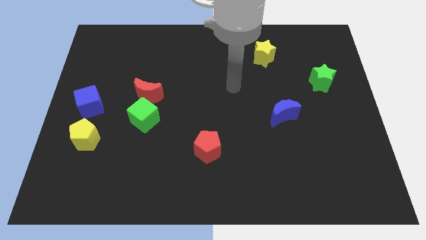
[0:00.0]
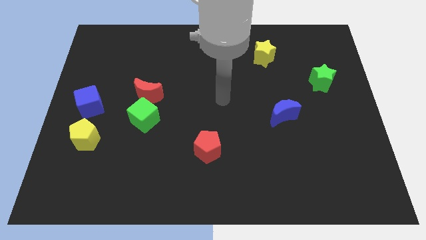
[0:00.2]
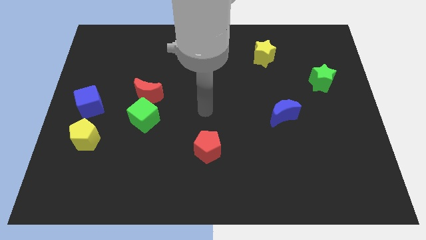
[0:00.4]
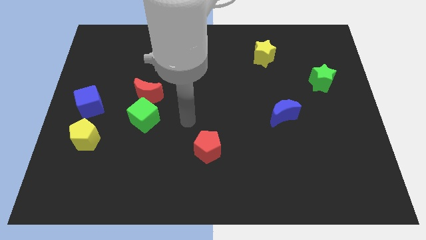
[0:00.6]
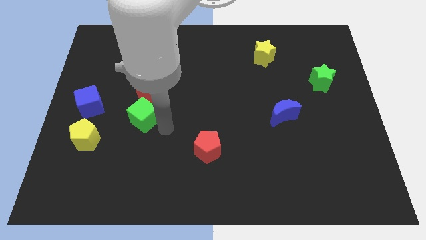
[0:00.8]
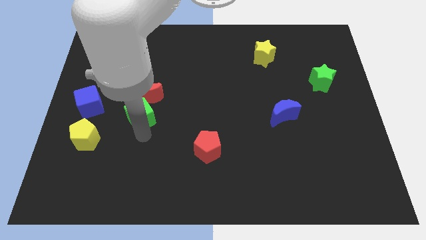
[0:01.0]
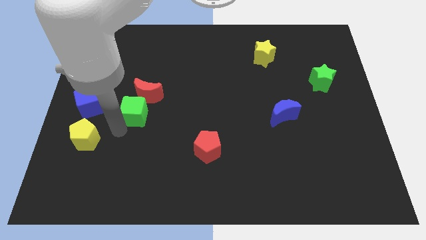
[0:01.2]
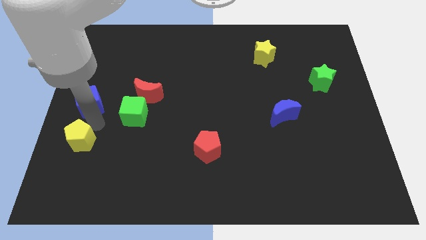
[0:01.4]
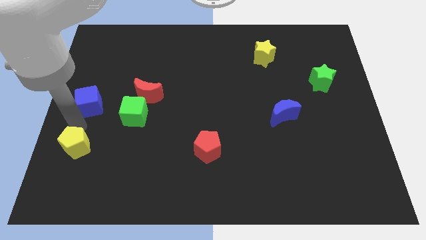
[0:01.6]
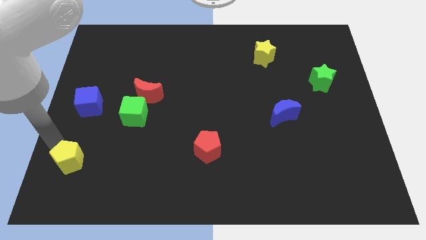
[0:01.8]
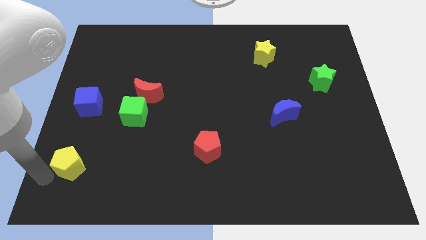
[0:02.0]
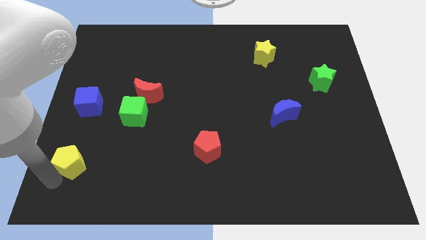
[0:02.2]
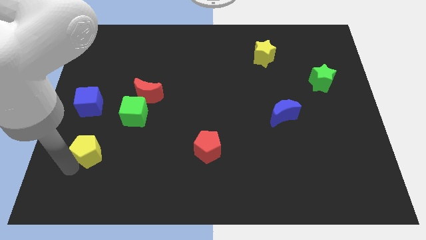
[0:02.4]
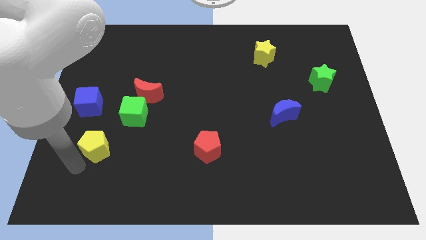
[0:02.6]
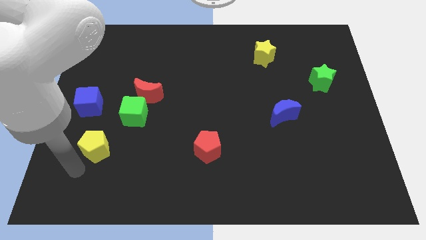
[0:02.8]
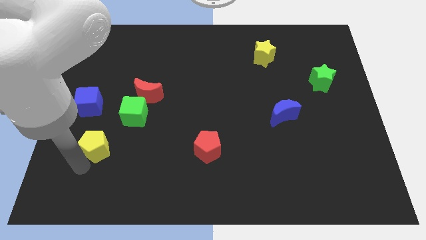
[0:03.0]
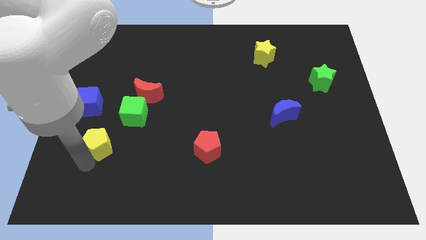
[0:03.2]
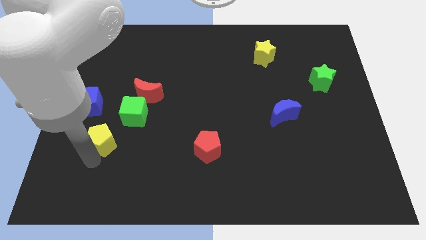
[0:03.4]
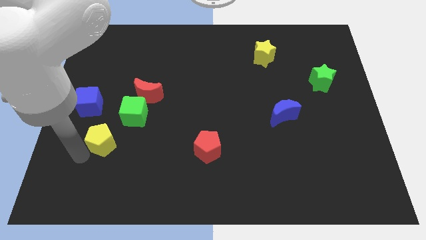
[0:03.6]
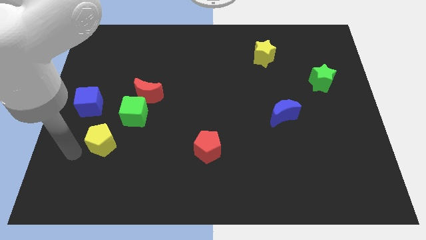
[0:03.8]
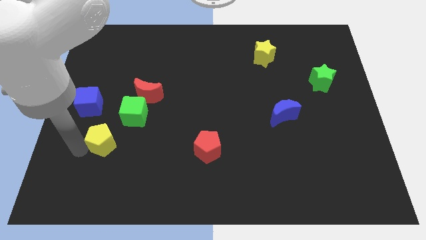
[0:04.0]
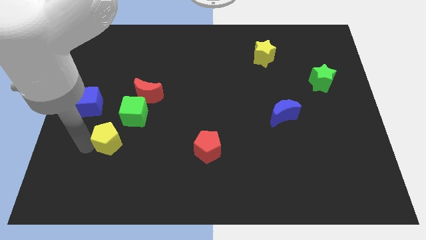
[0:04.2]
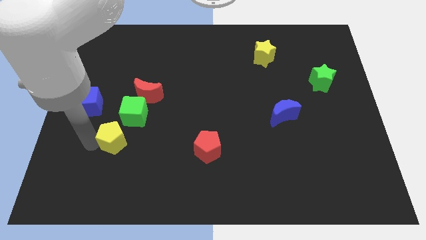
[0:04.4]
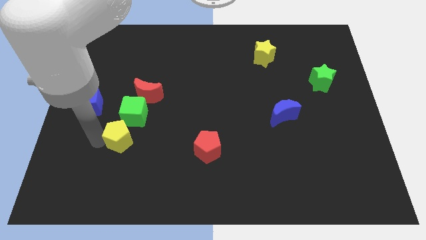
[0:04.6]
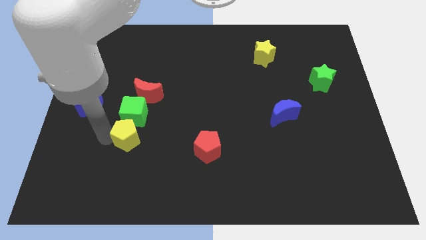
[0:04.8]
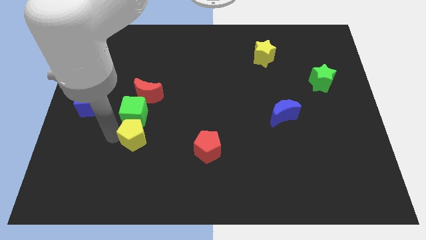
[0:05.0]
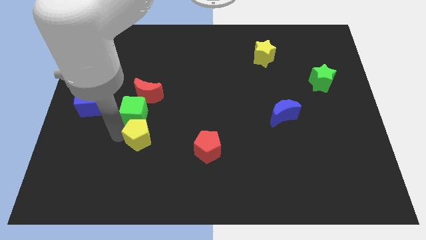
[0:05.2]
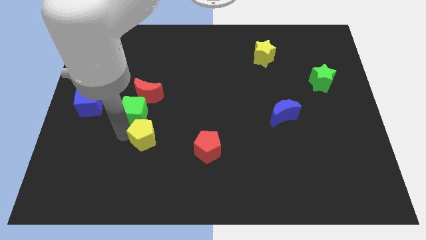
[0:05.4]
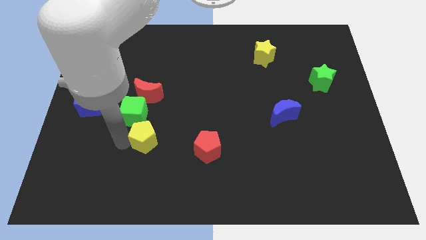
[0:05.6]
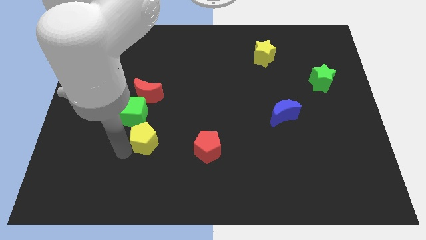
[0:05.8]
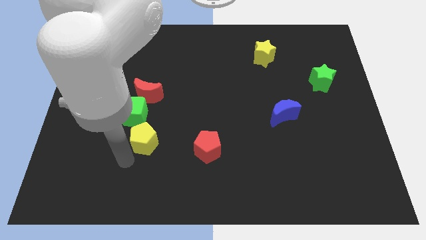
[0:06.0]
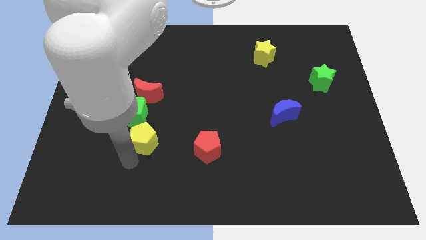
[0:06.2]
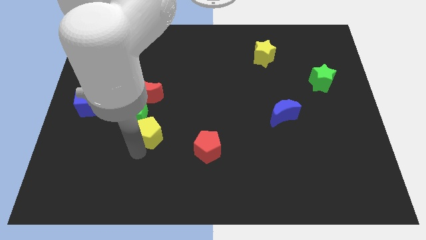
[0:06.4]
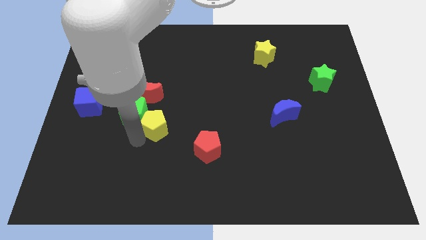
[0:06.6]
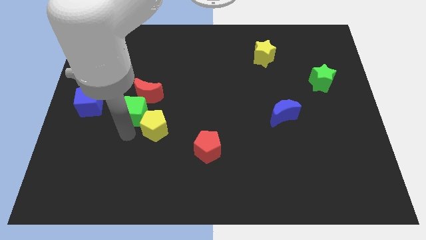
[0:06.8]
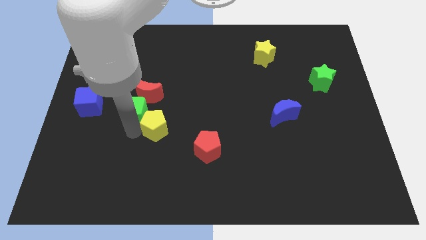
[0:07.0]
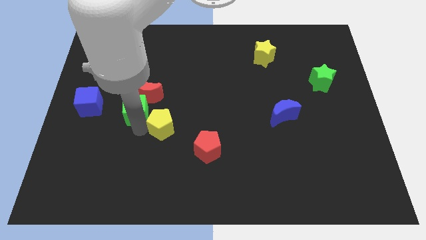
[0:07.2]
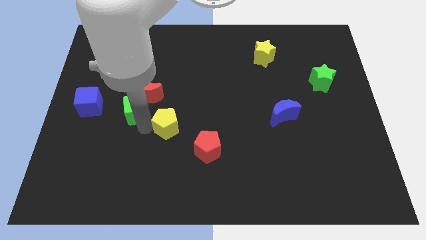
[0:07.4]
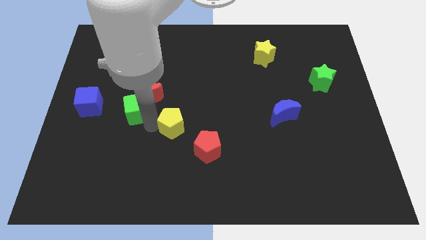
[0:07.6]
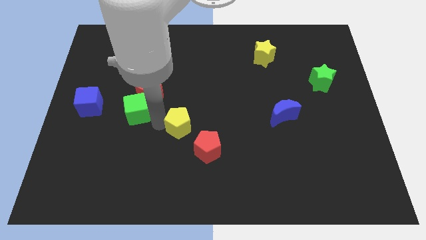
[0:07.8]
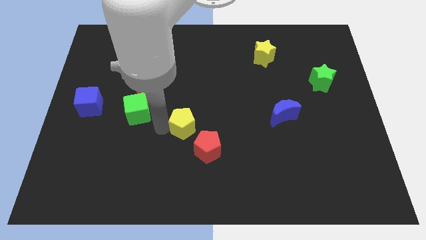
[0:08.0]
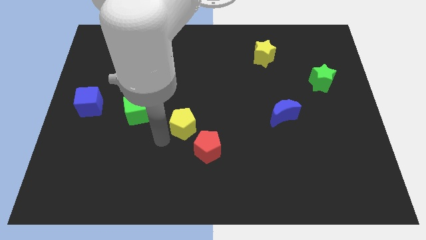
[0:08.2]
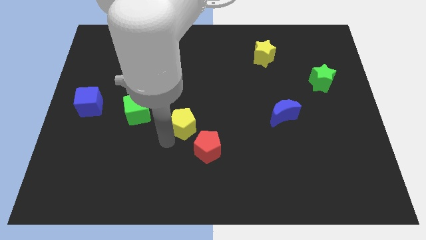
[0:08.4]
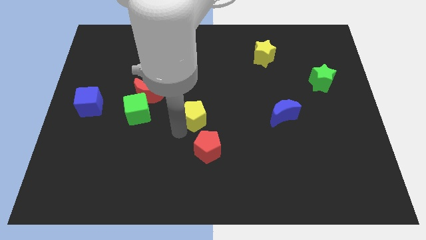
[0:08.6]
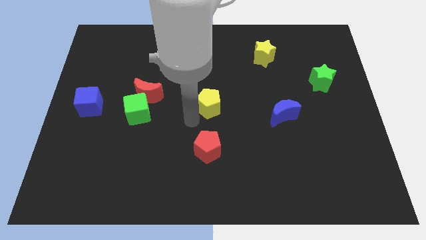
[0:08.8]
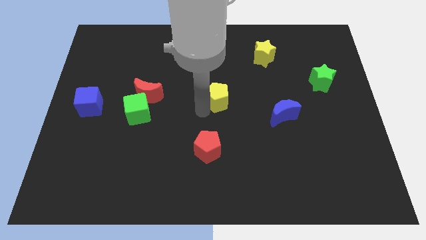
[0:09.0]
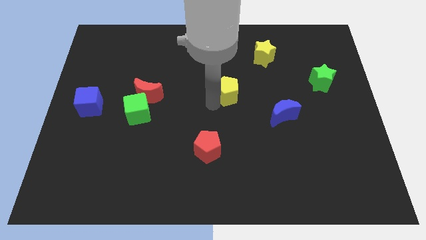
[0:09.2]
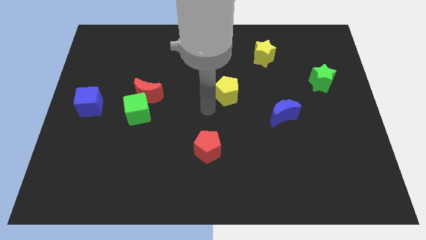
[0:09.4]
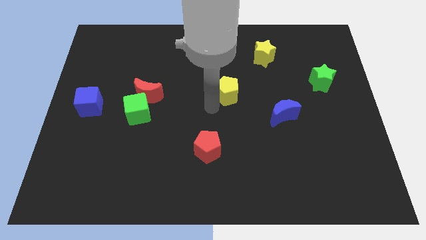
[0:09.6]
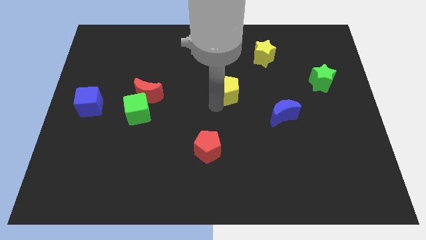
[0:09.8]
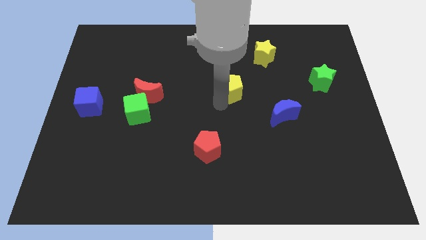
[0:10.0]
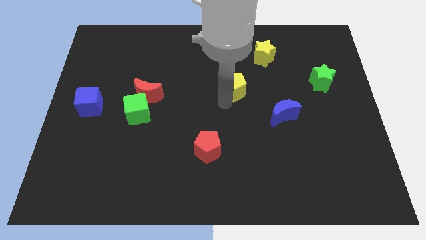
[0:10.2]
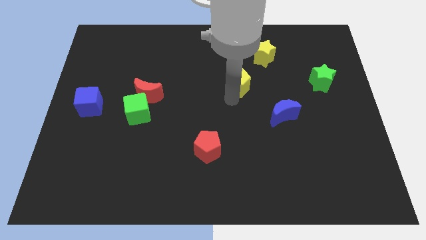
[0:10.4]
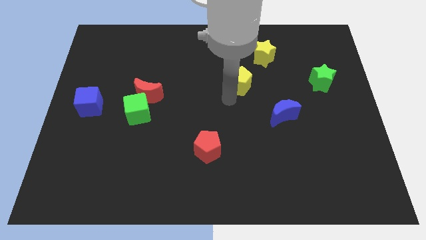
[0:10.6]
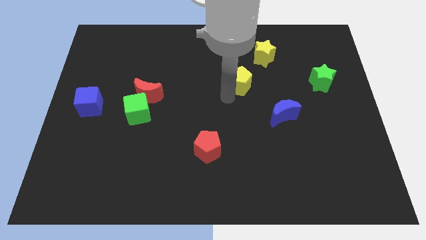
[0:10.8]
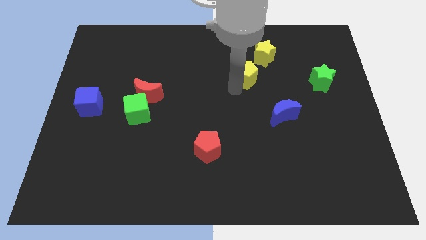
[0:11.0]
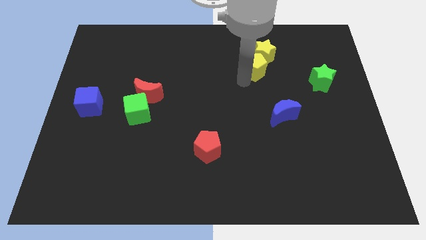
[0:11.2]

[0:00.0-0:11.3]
put the yellow pentagon next to the yellow star

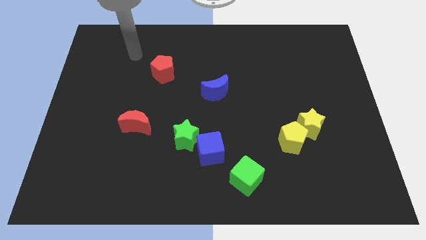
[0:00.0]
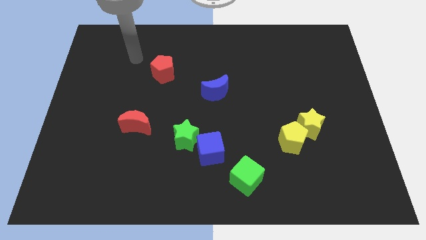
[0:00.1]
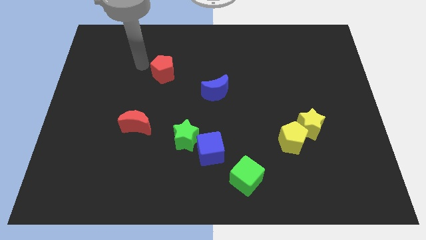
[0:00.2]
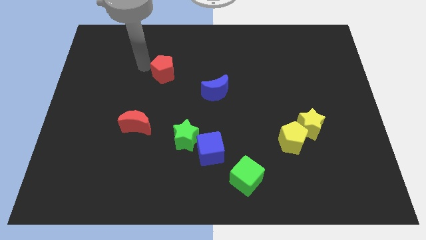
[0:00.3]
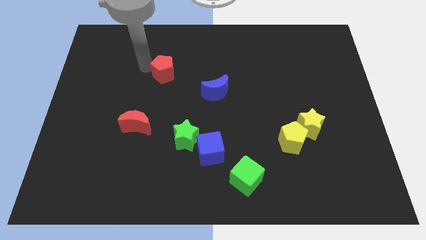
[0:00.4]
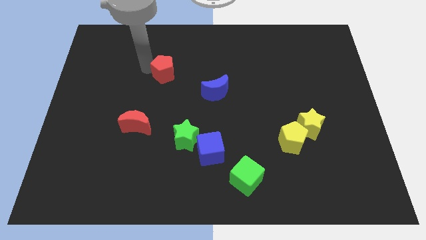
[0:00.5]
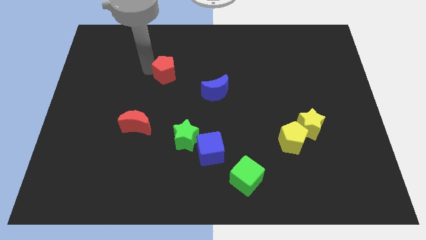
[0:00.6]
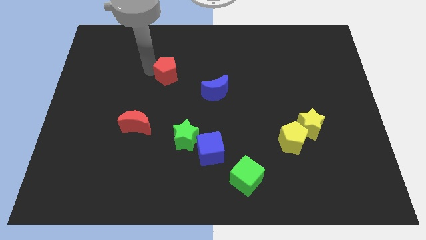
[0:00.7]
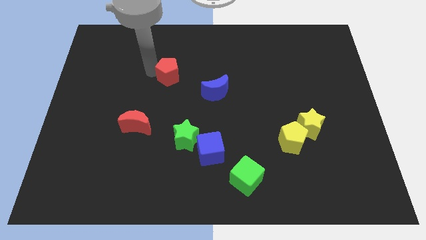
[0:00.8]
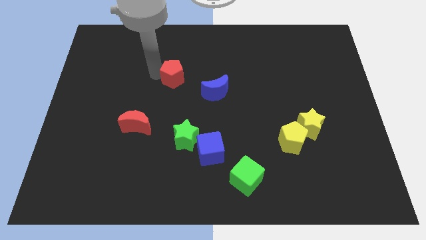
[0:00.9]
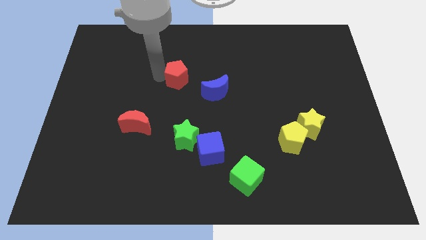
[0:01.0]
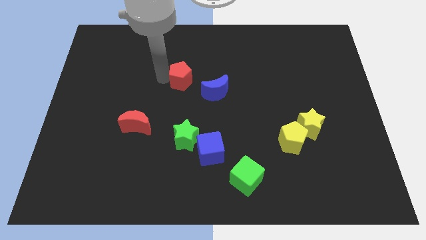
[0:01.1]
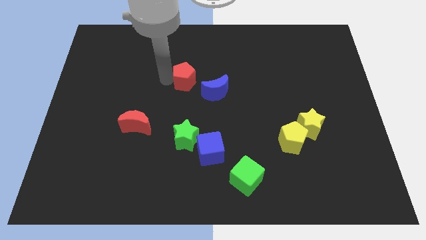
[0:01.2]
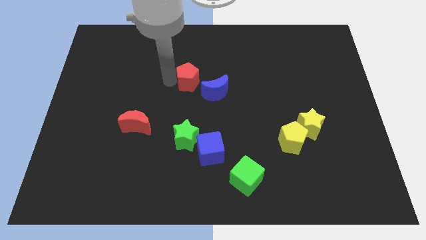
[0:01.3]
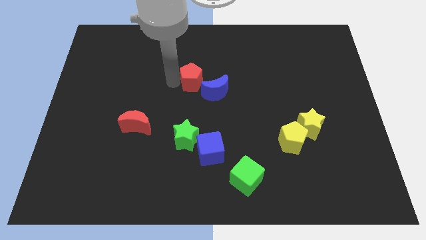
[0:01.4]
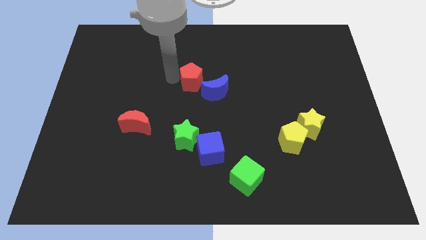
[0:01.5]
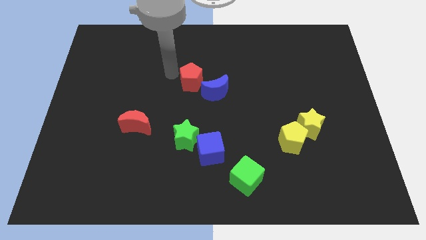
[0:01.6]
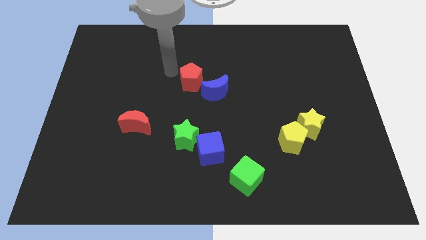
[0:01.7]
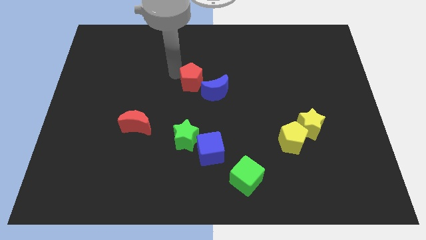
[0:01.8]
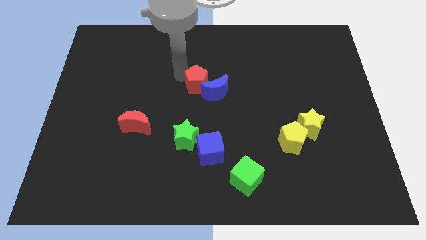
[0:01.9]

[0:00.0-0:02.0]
push the red pentagon towards the blue moon
